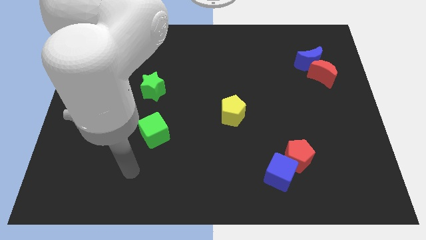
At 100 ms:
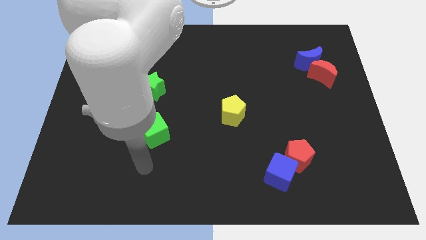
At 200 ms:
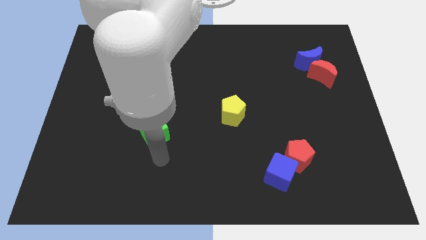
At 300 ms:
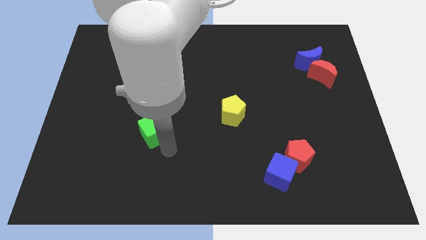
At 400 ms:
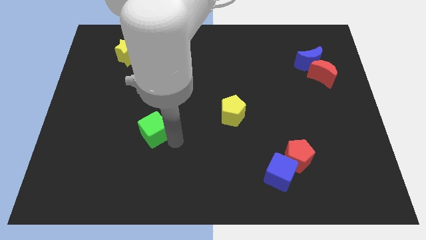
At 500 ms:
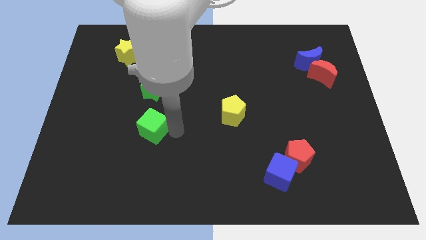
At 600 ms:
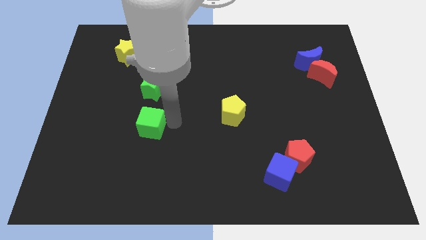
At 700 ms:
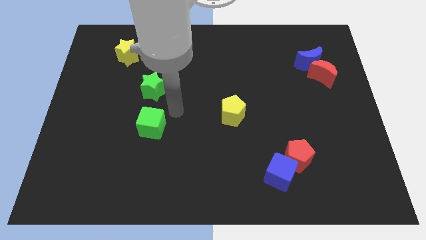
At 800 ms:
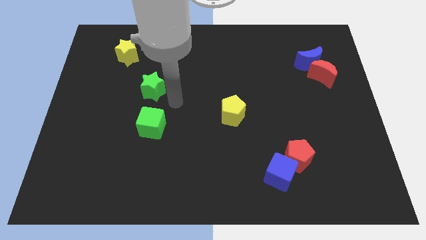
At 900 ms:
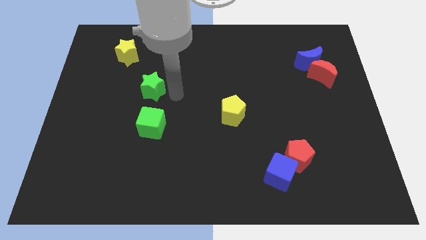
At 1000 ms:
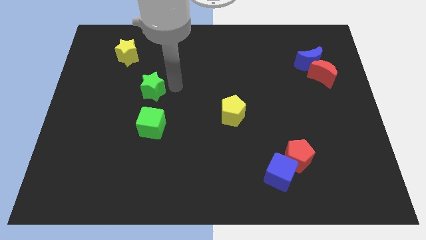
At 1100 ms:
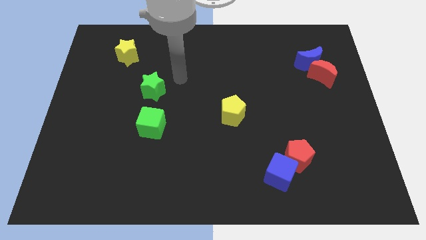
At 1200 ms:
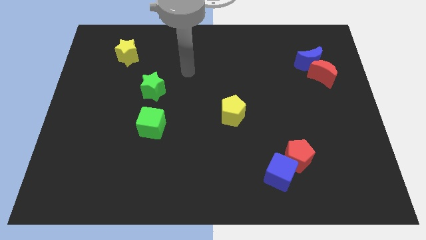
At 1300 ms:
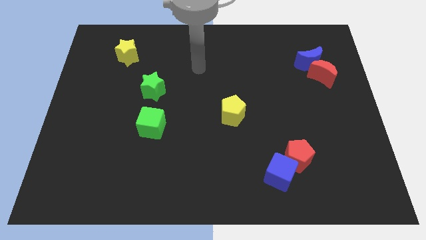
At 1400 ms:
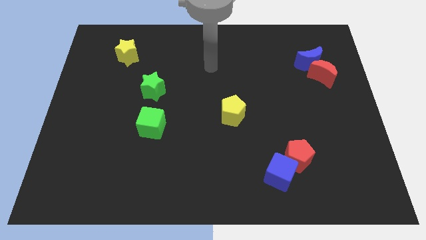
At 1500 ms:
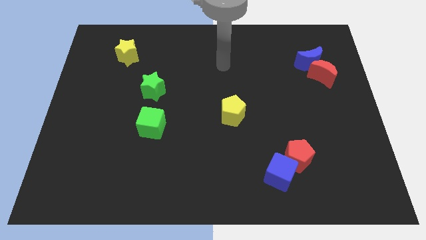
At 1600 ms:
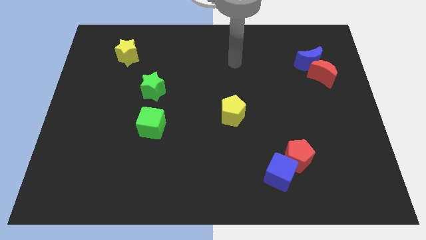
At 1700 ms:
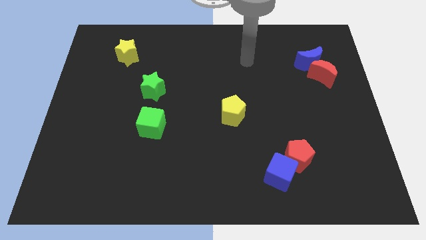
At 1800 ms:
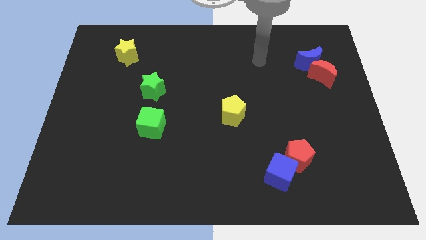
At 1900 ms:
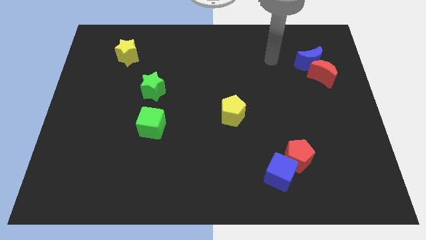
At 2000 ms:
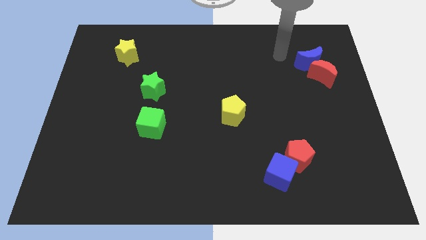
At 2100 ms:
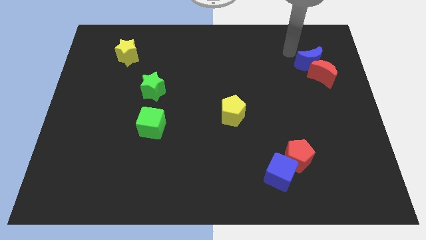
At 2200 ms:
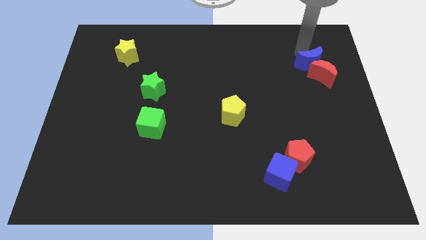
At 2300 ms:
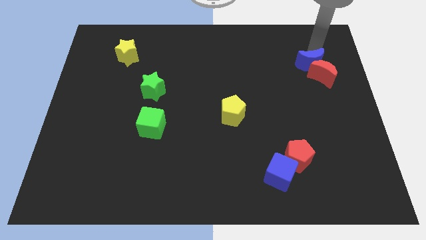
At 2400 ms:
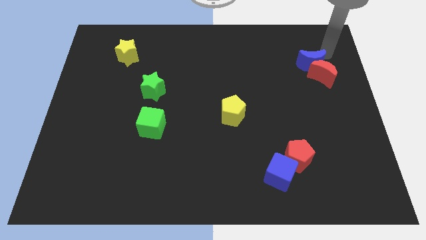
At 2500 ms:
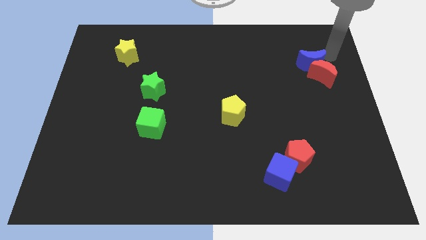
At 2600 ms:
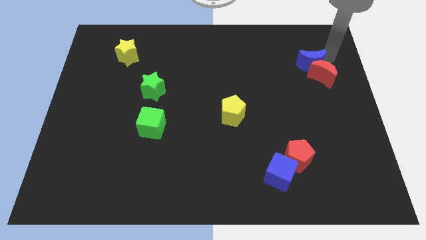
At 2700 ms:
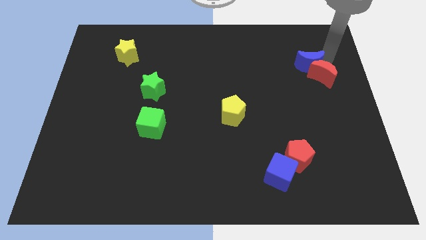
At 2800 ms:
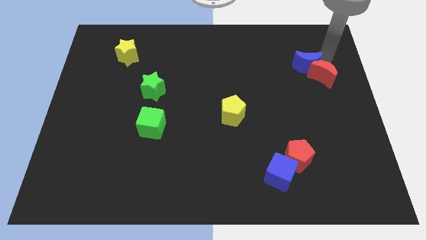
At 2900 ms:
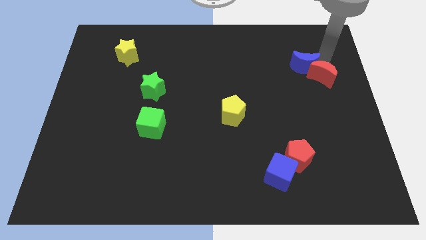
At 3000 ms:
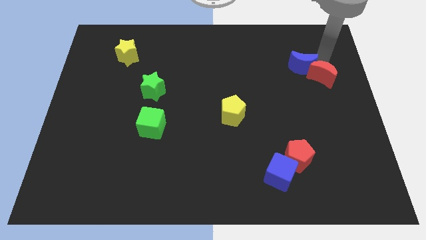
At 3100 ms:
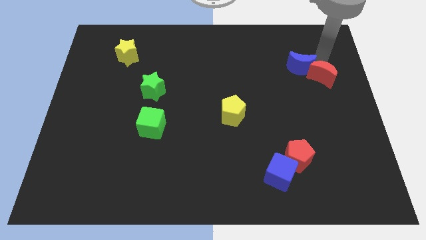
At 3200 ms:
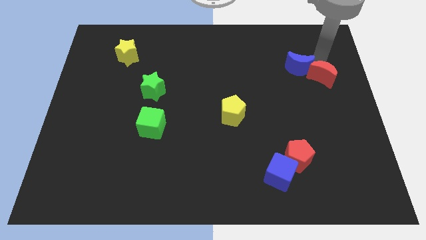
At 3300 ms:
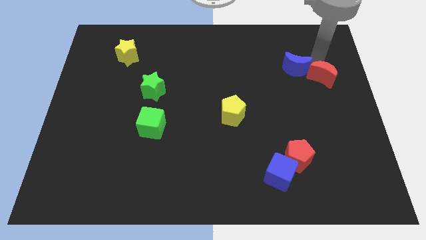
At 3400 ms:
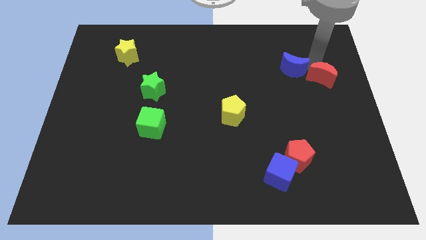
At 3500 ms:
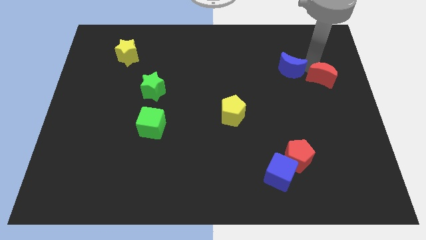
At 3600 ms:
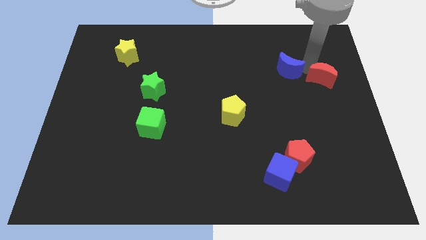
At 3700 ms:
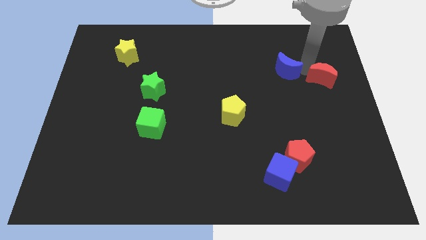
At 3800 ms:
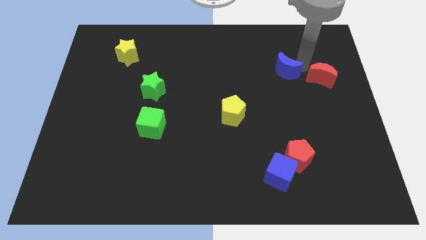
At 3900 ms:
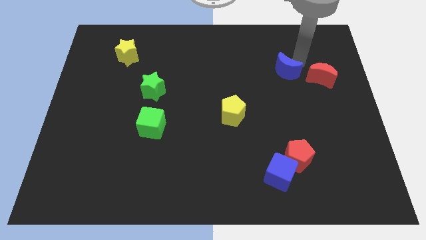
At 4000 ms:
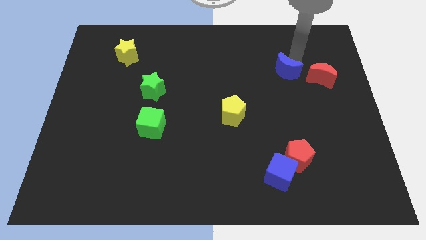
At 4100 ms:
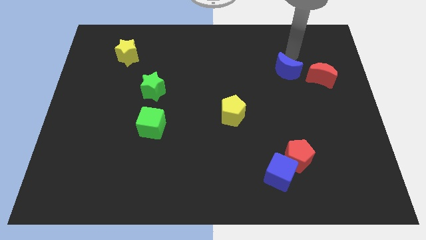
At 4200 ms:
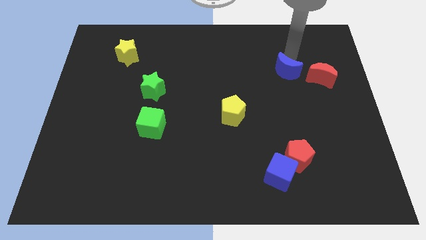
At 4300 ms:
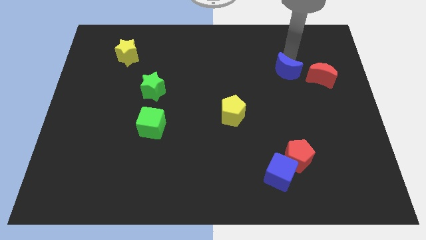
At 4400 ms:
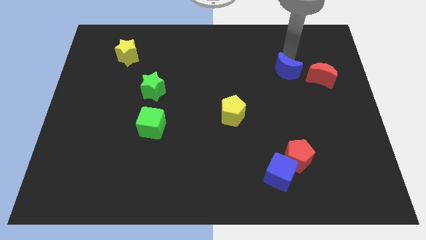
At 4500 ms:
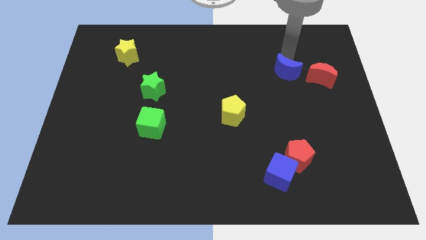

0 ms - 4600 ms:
move the blue moon a bit down and left diagonally

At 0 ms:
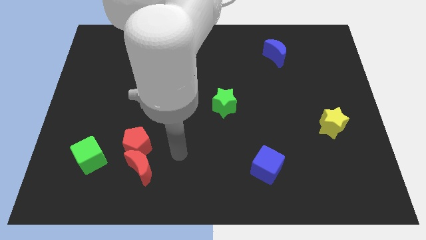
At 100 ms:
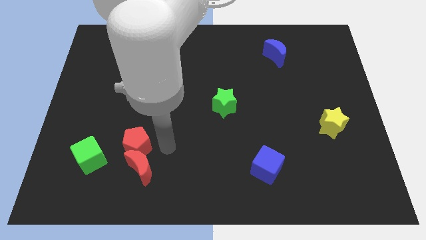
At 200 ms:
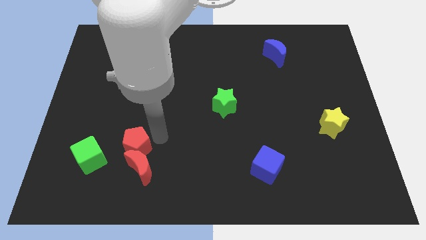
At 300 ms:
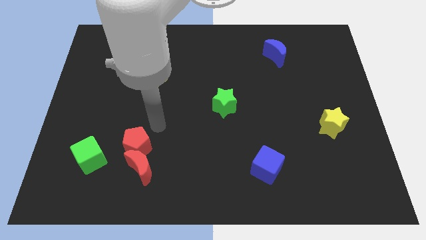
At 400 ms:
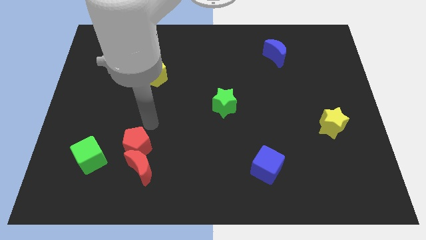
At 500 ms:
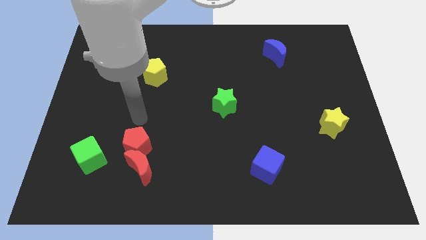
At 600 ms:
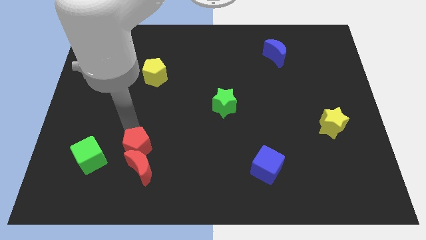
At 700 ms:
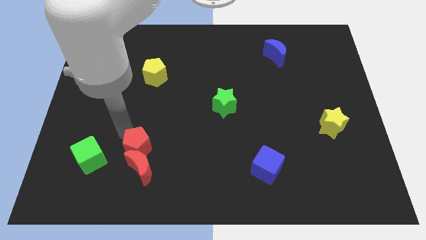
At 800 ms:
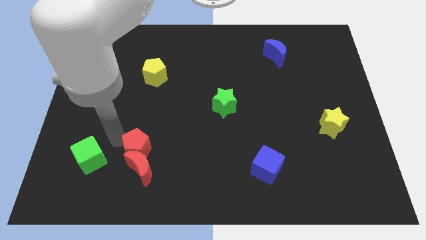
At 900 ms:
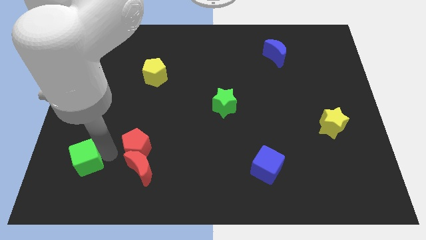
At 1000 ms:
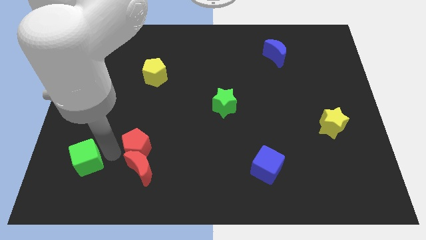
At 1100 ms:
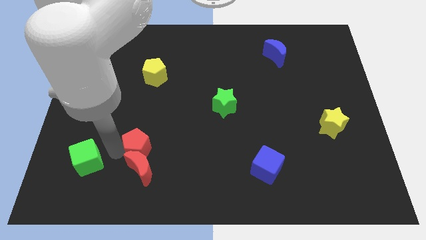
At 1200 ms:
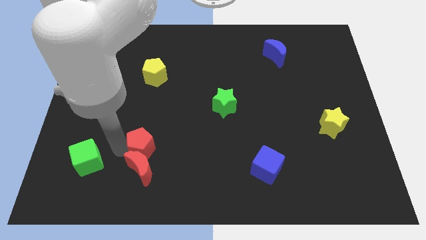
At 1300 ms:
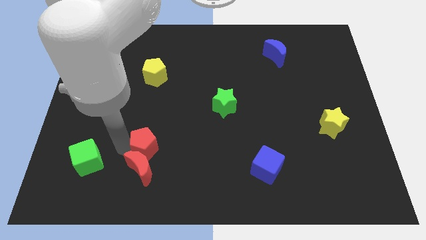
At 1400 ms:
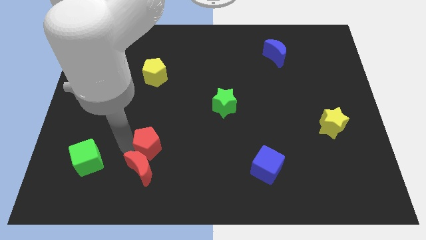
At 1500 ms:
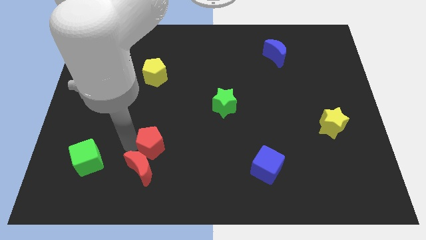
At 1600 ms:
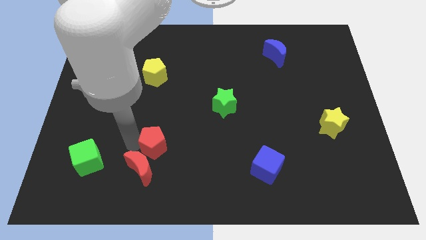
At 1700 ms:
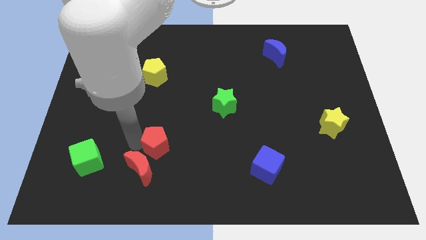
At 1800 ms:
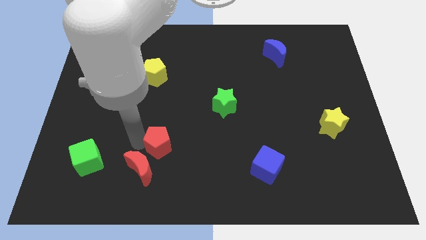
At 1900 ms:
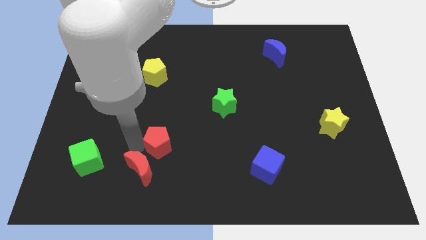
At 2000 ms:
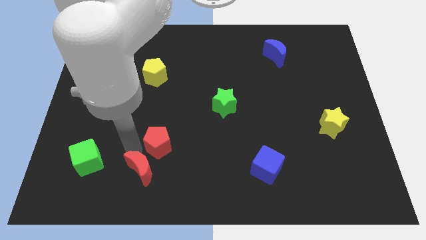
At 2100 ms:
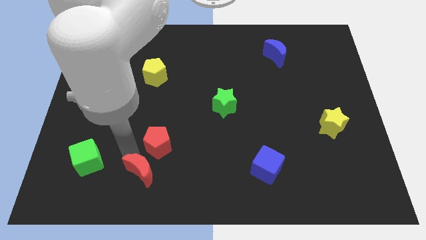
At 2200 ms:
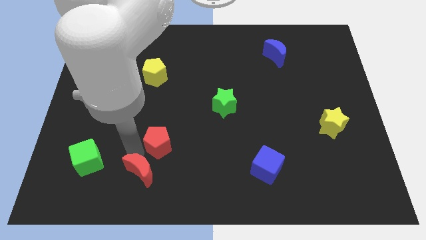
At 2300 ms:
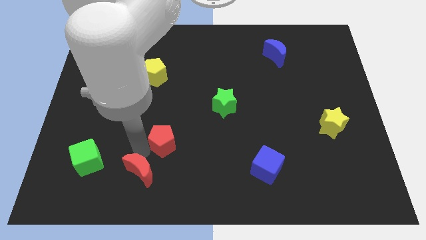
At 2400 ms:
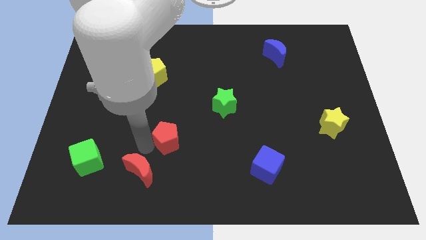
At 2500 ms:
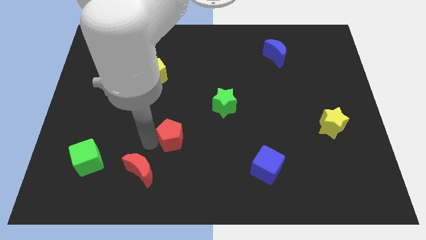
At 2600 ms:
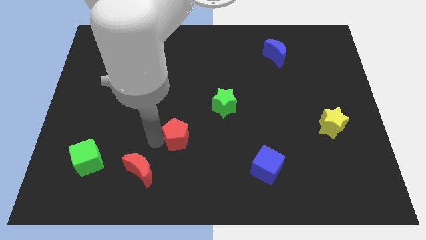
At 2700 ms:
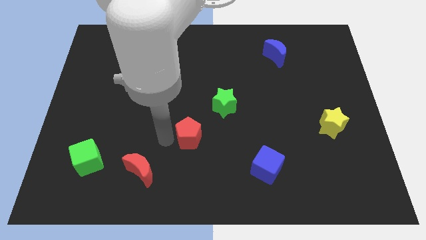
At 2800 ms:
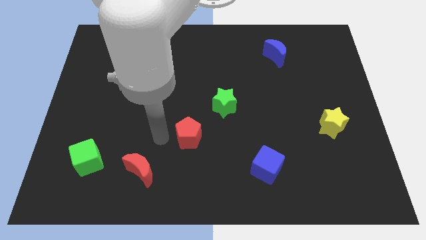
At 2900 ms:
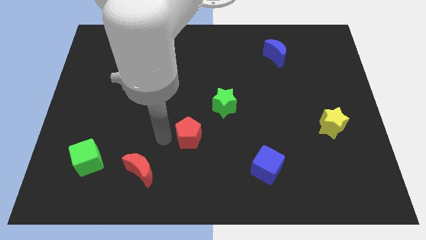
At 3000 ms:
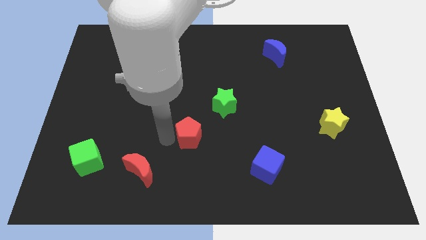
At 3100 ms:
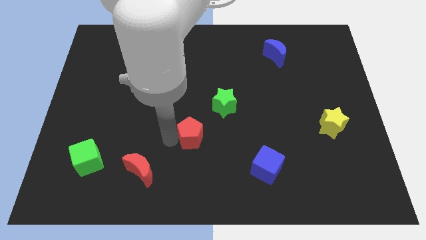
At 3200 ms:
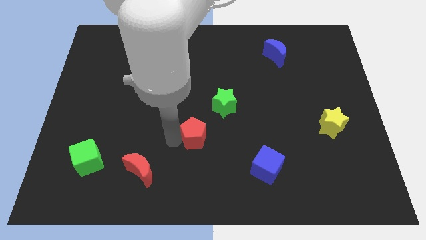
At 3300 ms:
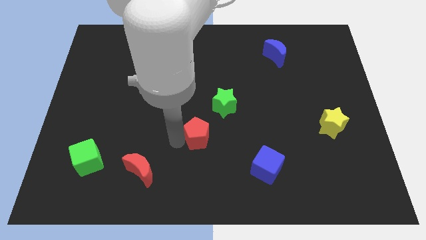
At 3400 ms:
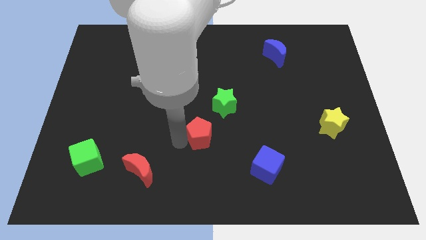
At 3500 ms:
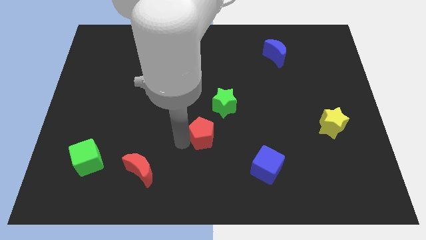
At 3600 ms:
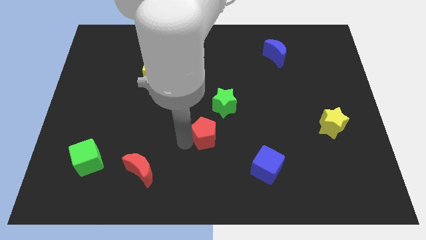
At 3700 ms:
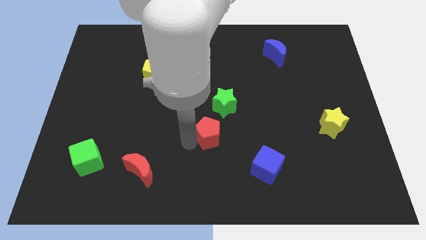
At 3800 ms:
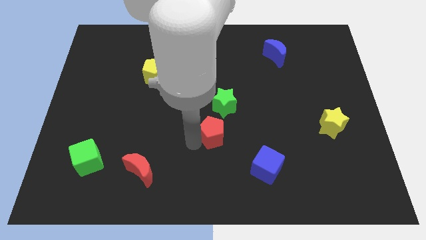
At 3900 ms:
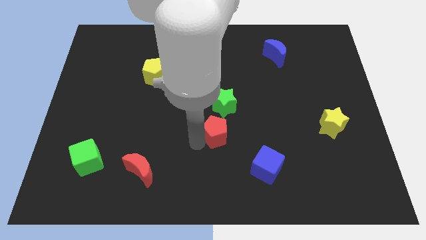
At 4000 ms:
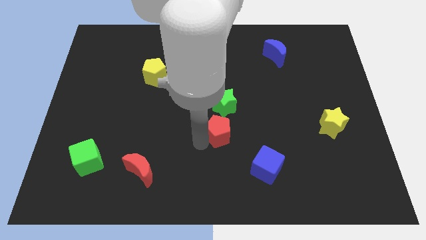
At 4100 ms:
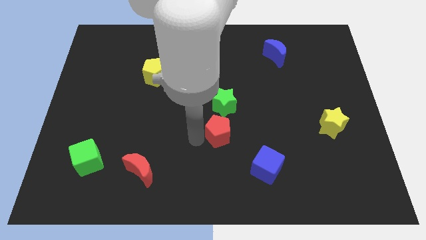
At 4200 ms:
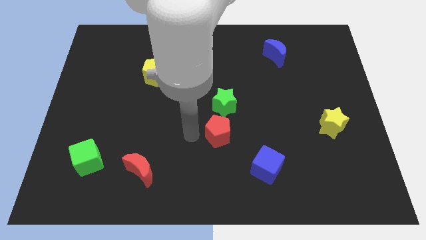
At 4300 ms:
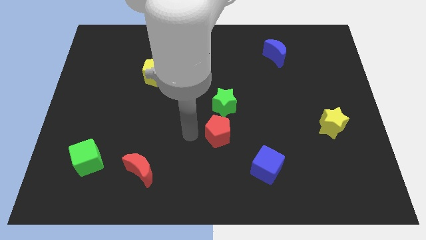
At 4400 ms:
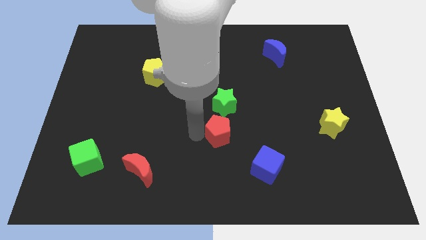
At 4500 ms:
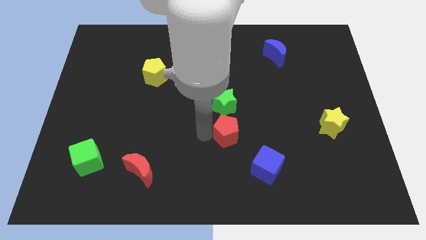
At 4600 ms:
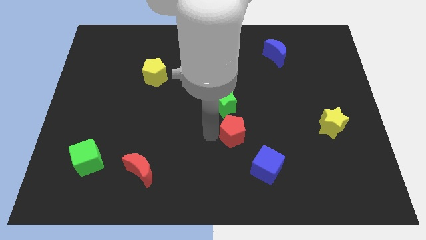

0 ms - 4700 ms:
push the red pentagon right
